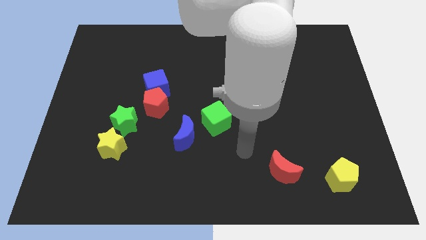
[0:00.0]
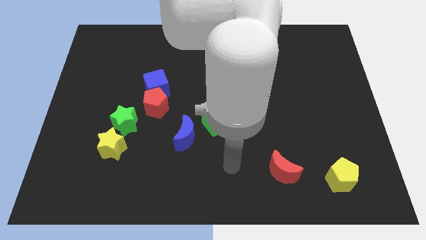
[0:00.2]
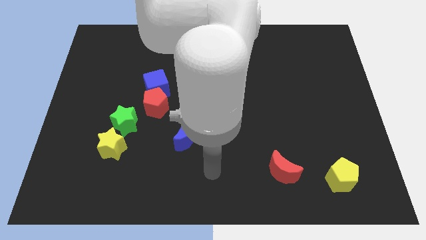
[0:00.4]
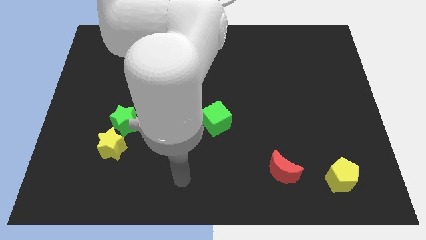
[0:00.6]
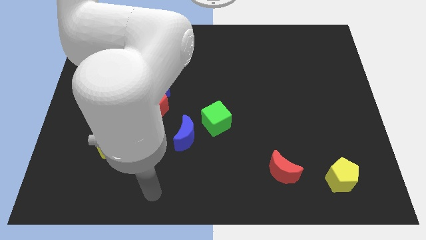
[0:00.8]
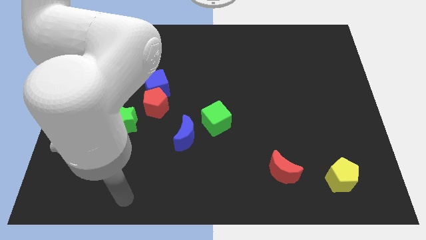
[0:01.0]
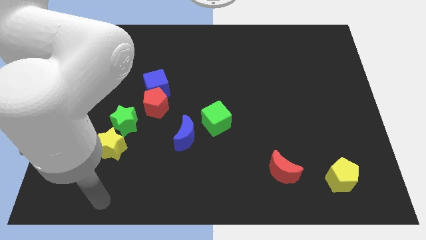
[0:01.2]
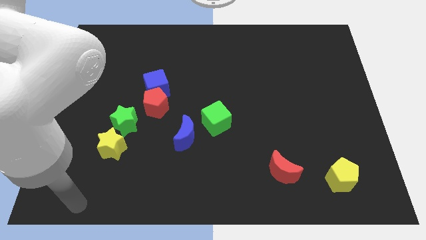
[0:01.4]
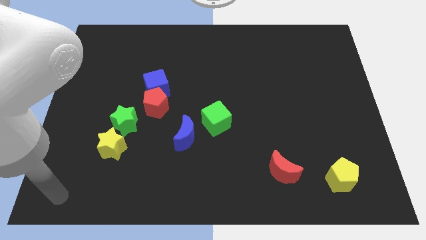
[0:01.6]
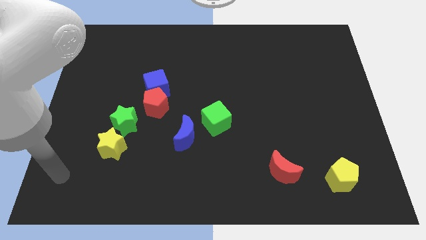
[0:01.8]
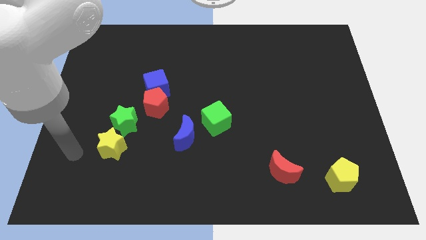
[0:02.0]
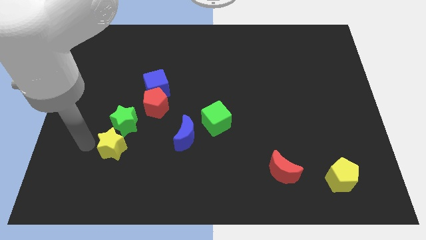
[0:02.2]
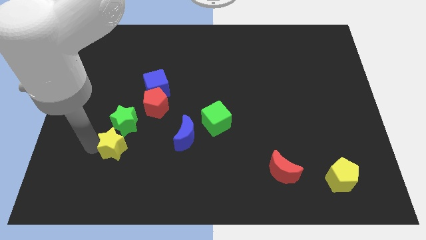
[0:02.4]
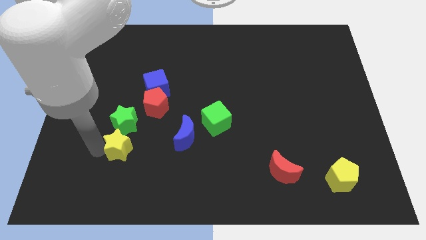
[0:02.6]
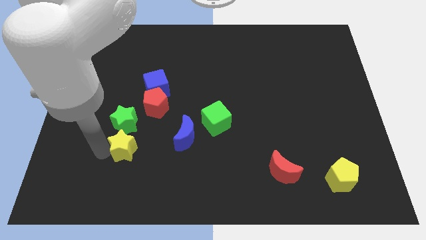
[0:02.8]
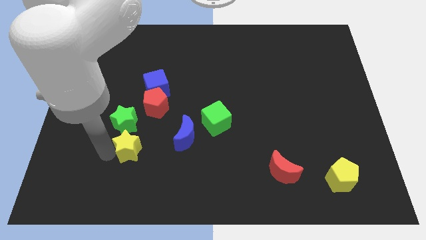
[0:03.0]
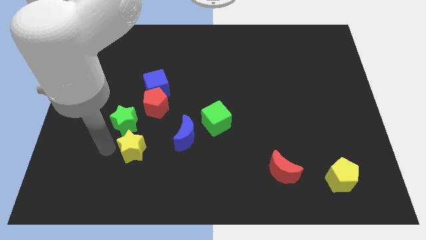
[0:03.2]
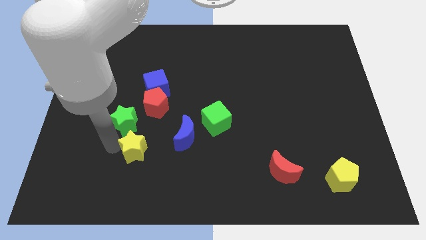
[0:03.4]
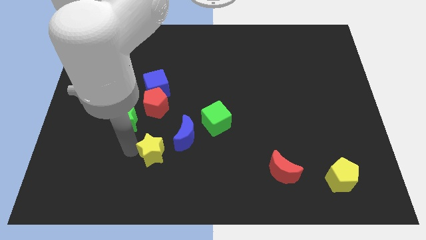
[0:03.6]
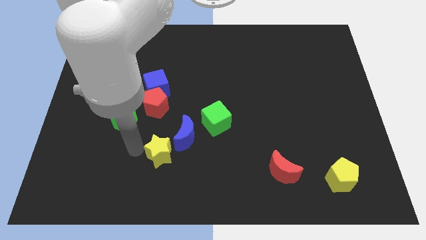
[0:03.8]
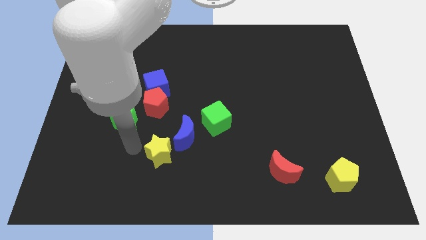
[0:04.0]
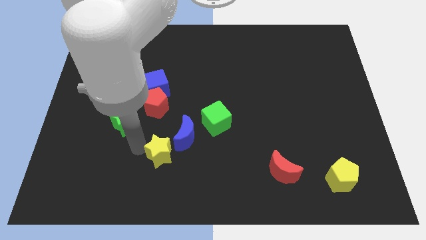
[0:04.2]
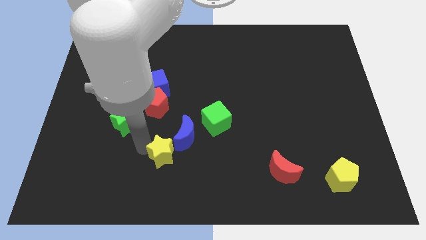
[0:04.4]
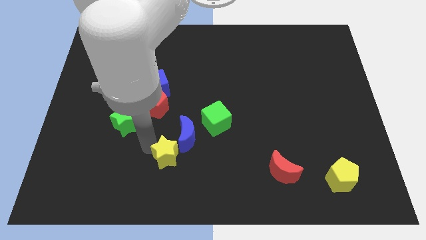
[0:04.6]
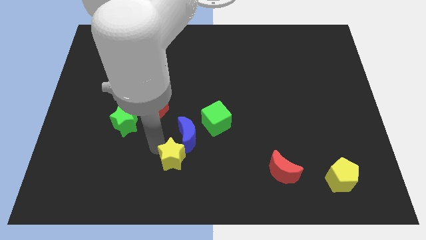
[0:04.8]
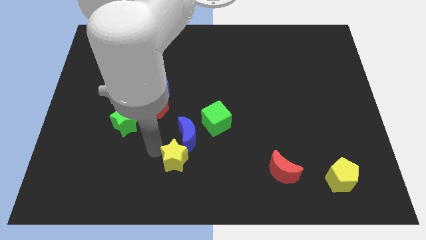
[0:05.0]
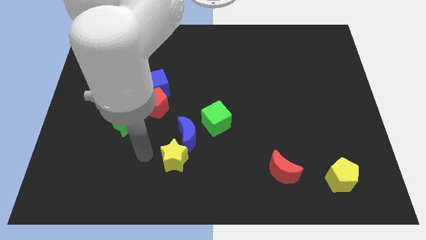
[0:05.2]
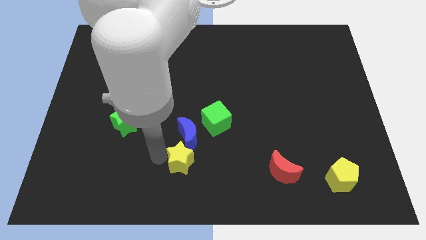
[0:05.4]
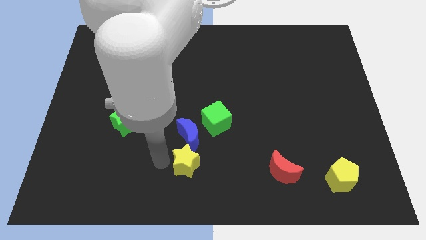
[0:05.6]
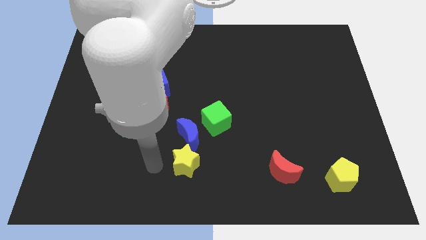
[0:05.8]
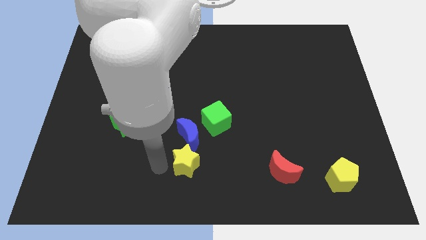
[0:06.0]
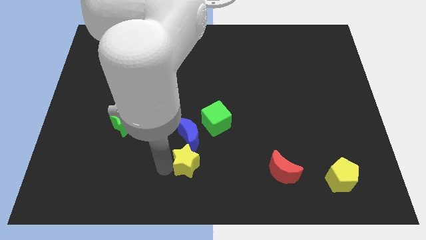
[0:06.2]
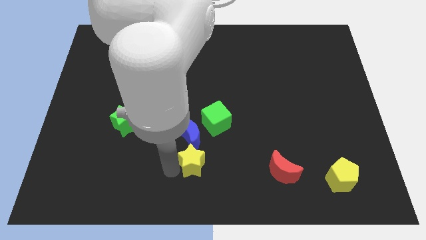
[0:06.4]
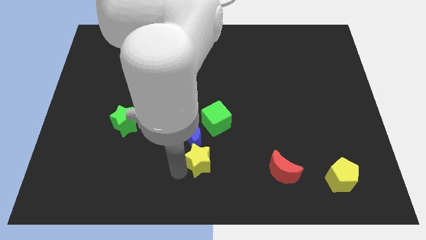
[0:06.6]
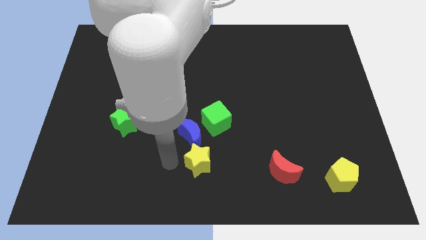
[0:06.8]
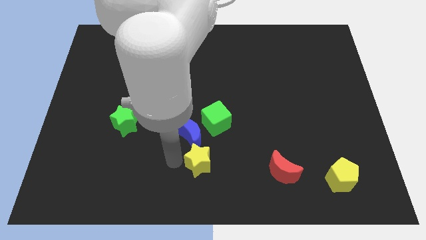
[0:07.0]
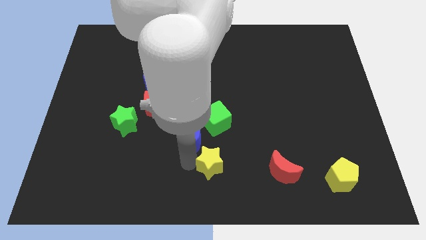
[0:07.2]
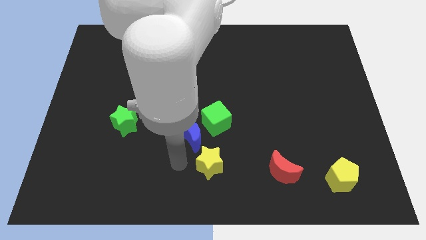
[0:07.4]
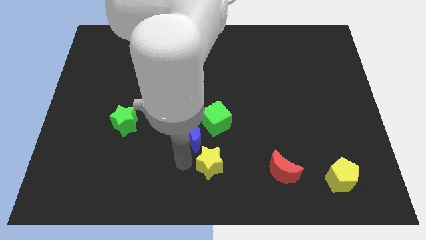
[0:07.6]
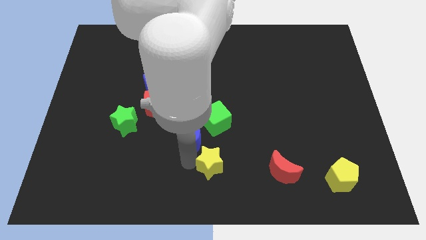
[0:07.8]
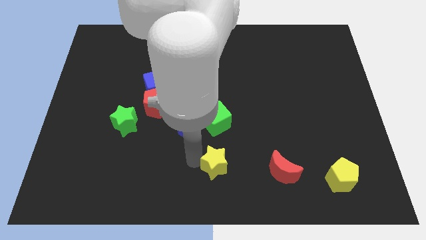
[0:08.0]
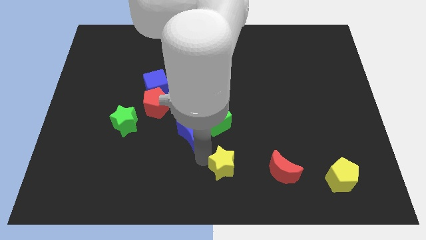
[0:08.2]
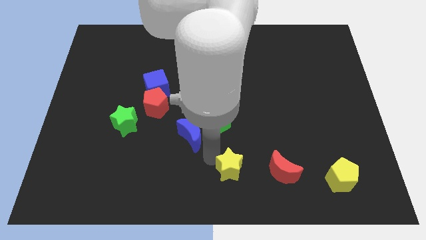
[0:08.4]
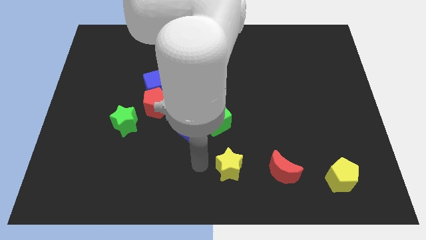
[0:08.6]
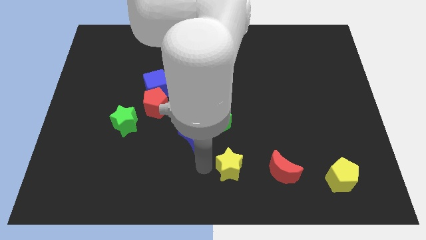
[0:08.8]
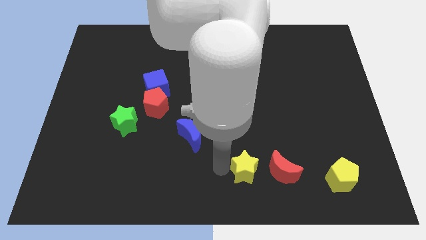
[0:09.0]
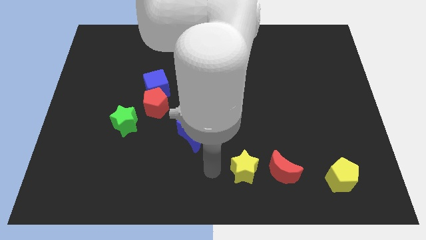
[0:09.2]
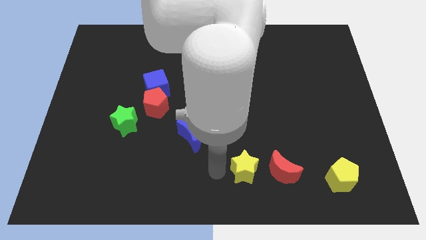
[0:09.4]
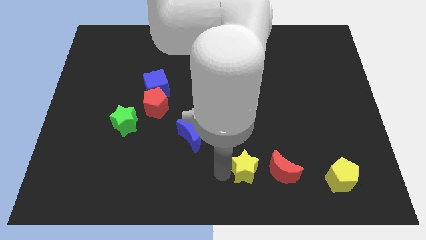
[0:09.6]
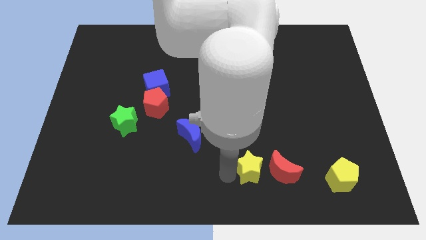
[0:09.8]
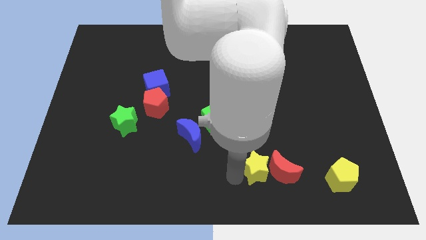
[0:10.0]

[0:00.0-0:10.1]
put the yellow star to the red moon

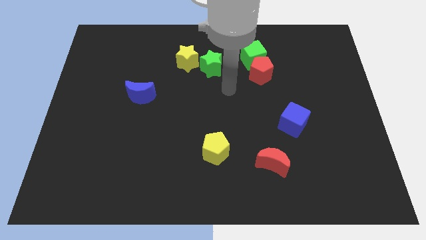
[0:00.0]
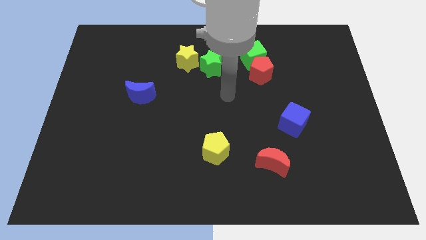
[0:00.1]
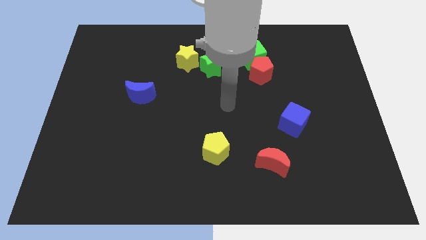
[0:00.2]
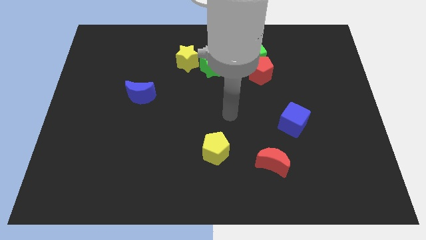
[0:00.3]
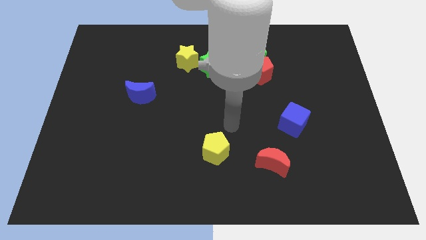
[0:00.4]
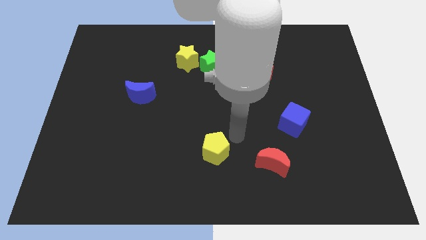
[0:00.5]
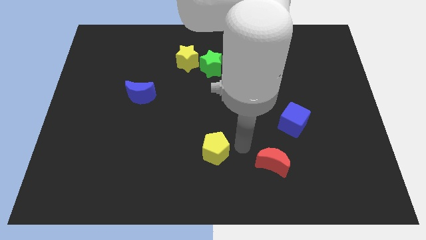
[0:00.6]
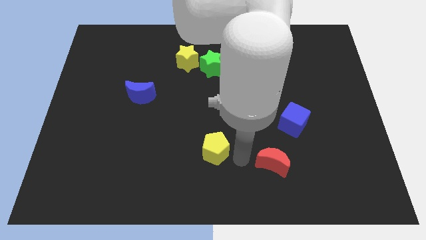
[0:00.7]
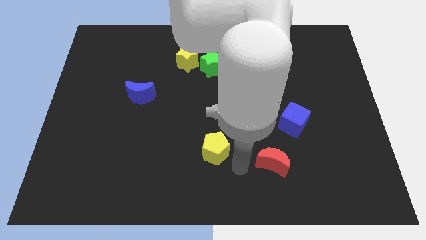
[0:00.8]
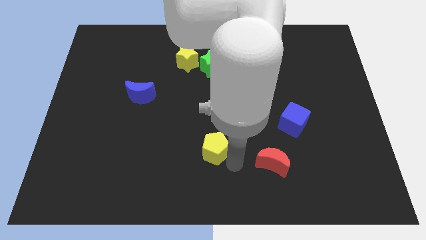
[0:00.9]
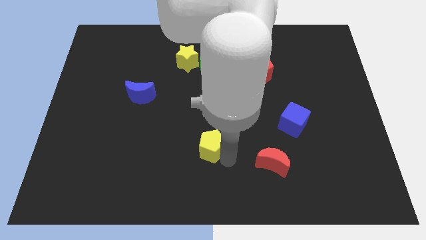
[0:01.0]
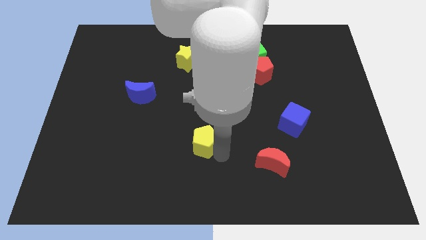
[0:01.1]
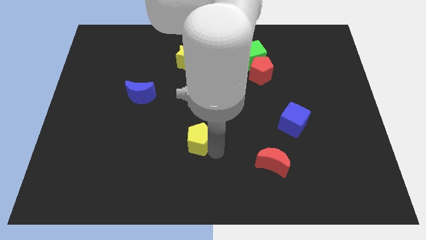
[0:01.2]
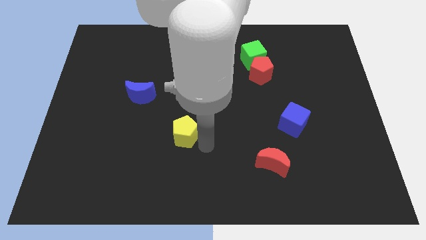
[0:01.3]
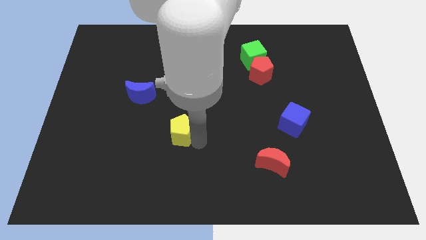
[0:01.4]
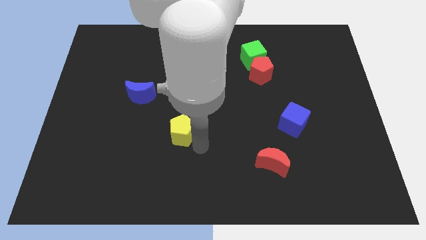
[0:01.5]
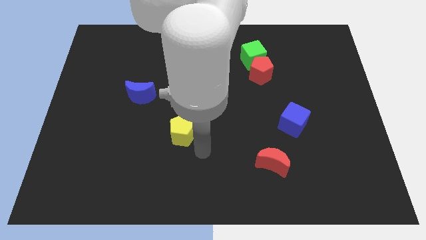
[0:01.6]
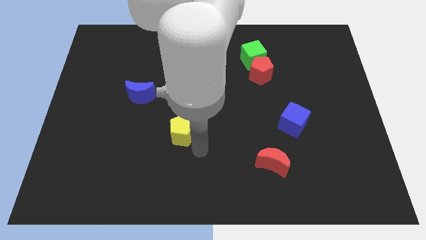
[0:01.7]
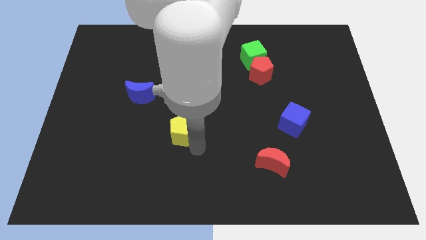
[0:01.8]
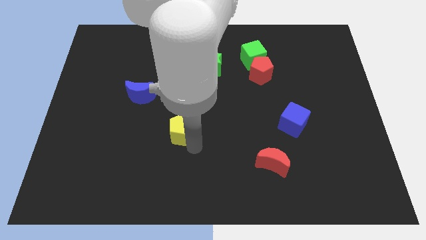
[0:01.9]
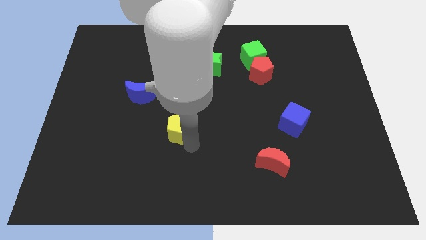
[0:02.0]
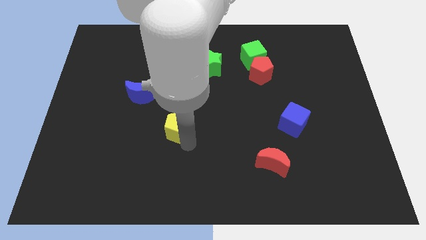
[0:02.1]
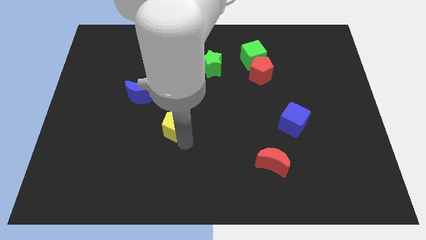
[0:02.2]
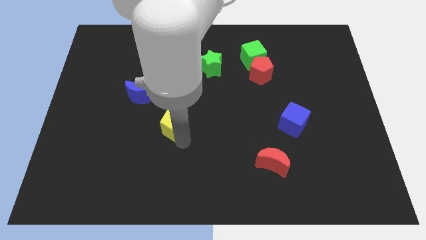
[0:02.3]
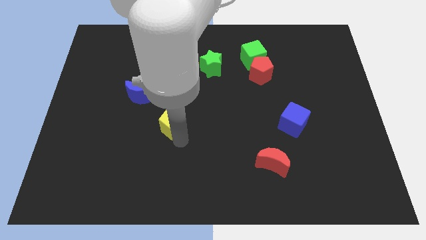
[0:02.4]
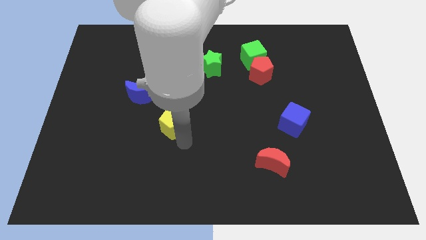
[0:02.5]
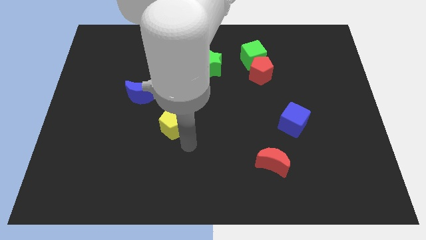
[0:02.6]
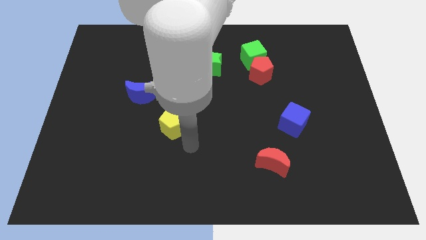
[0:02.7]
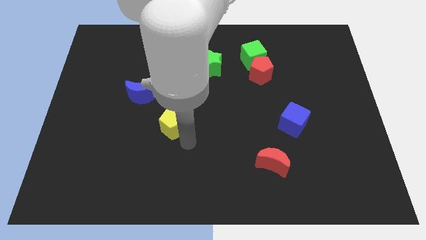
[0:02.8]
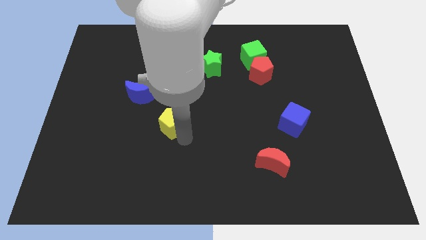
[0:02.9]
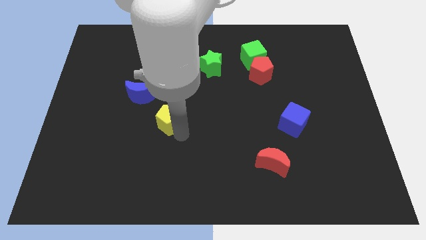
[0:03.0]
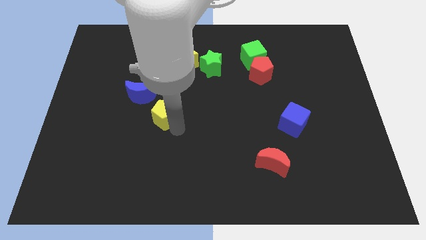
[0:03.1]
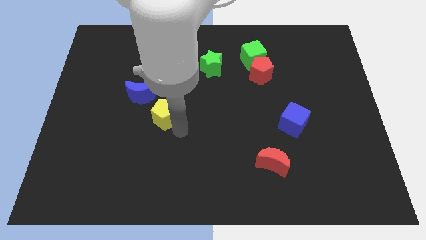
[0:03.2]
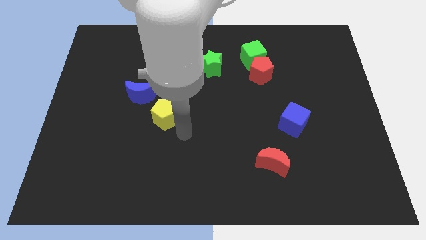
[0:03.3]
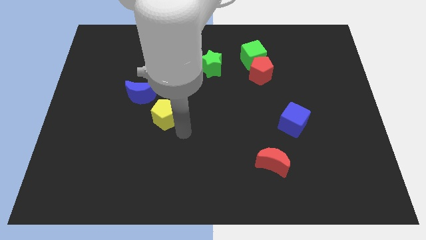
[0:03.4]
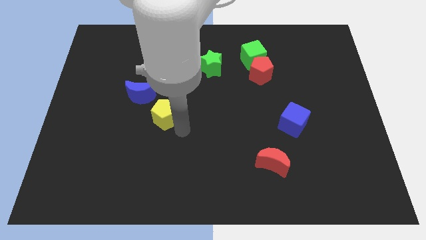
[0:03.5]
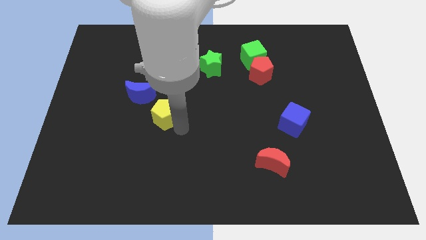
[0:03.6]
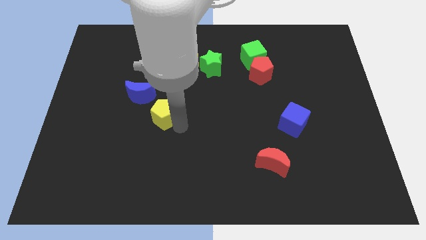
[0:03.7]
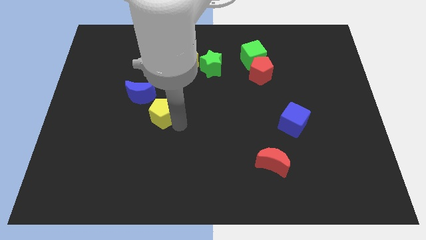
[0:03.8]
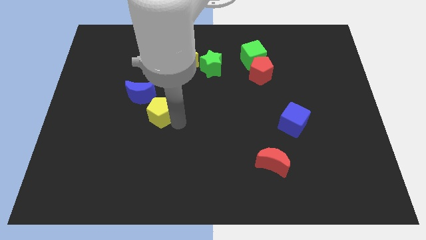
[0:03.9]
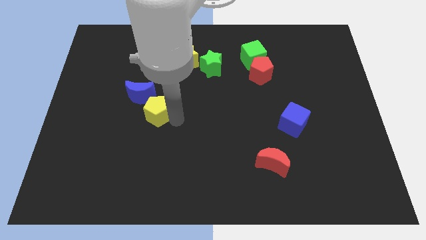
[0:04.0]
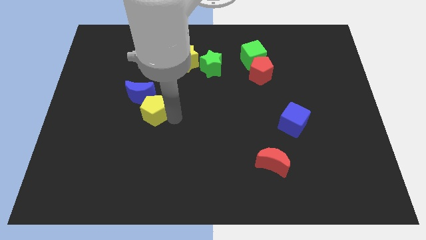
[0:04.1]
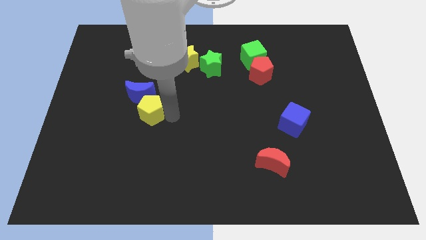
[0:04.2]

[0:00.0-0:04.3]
put the yellow pentagon next to the blue moon
